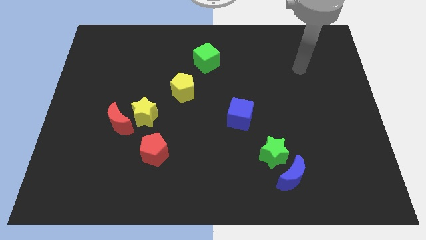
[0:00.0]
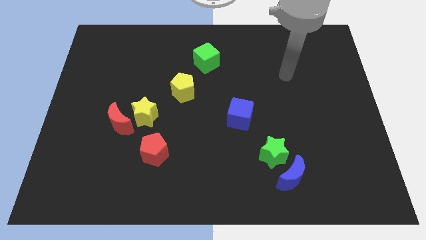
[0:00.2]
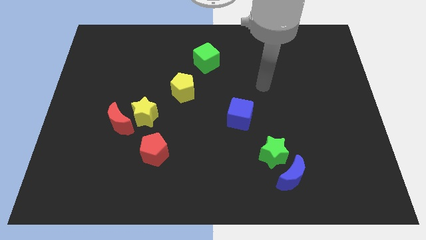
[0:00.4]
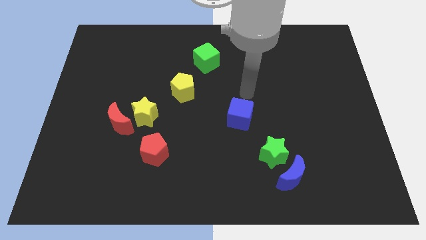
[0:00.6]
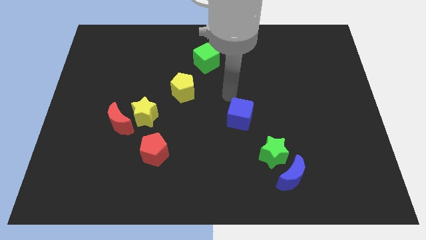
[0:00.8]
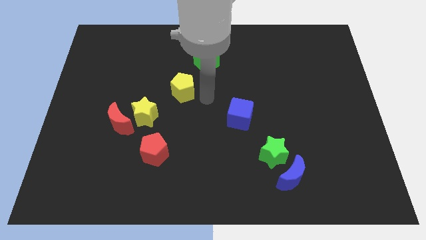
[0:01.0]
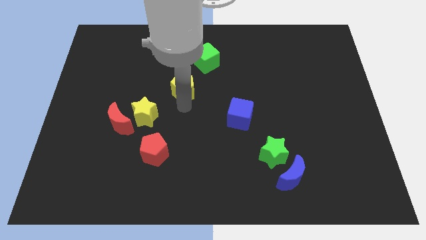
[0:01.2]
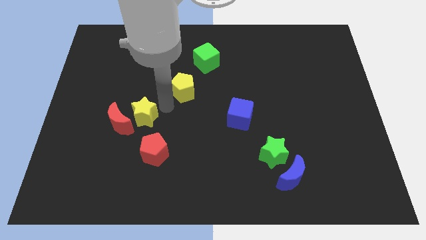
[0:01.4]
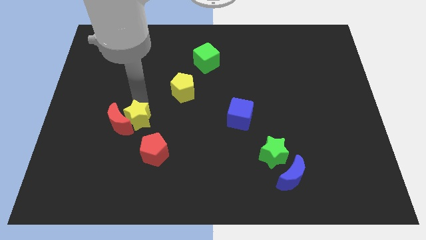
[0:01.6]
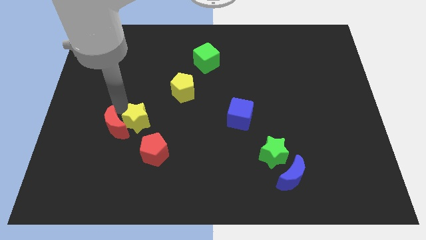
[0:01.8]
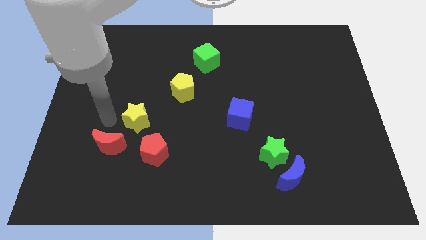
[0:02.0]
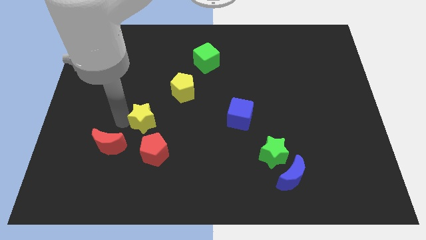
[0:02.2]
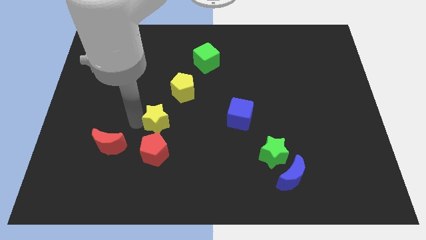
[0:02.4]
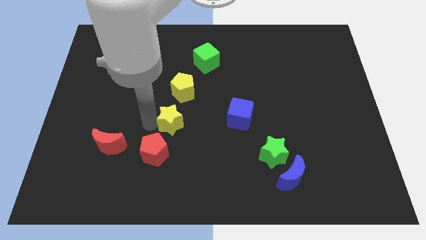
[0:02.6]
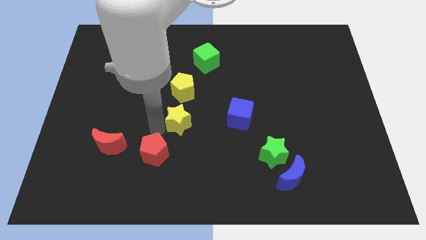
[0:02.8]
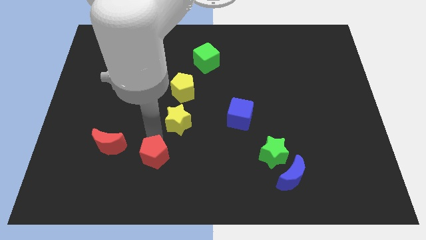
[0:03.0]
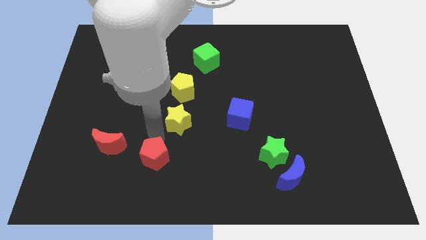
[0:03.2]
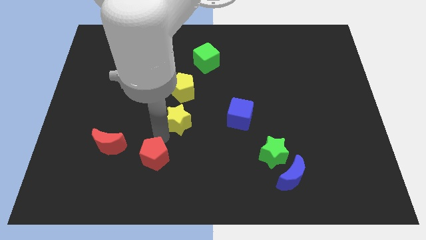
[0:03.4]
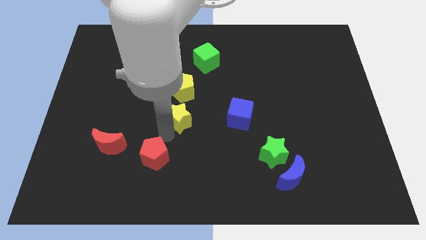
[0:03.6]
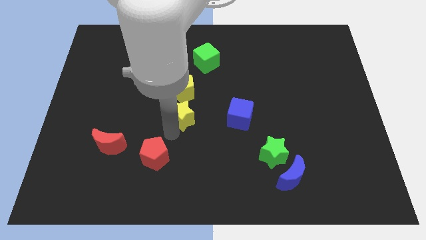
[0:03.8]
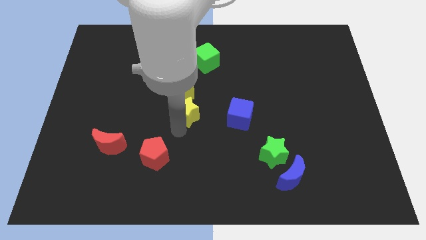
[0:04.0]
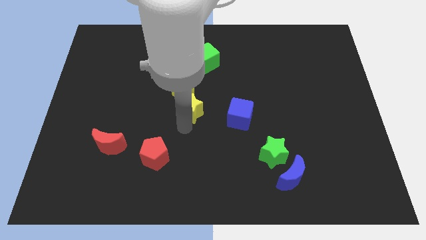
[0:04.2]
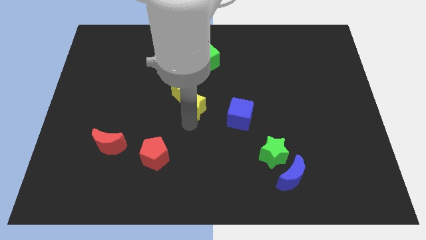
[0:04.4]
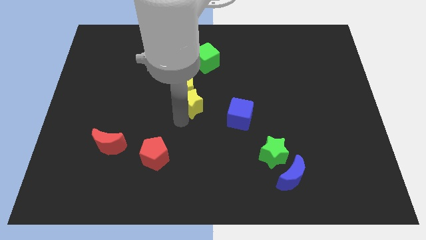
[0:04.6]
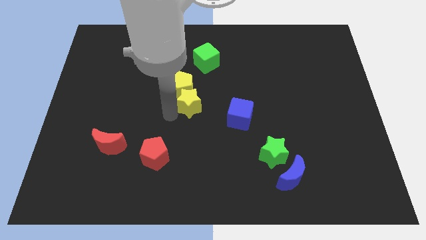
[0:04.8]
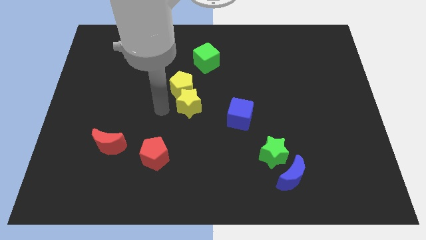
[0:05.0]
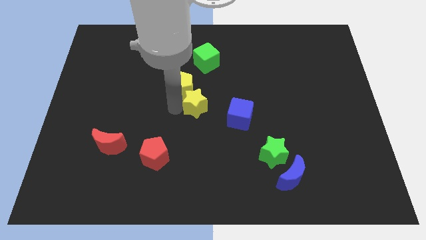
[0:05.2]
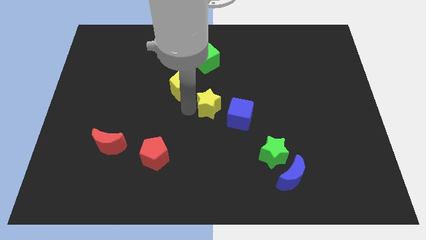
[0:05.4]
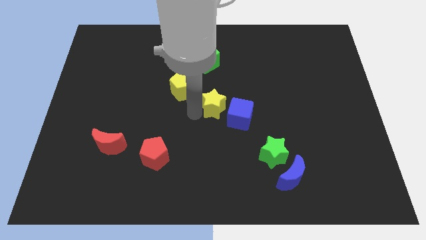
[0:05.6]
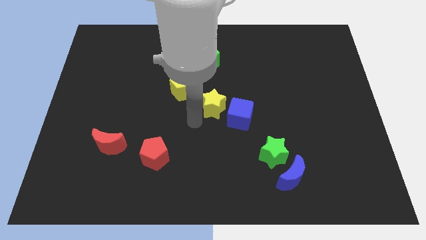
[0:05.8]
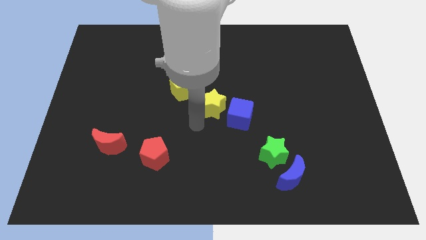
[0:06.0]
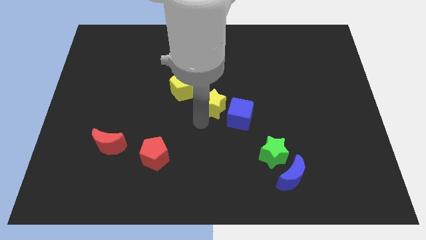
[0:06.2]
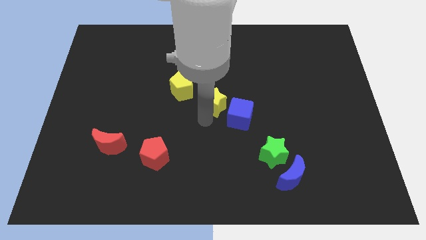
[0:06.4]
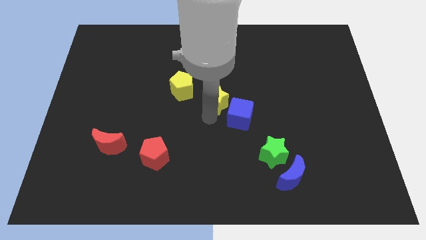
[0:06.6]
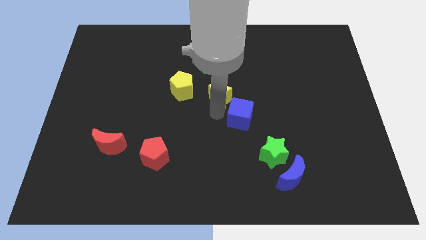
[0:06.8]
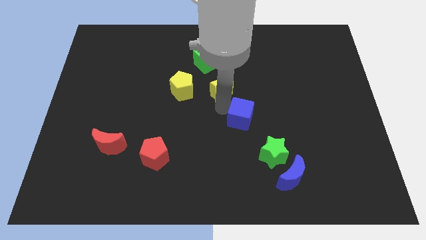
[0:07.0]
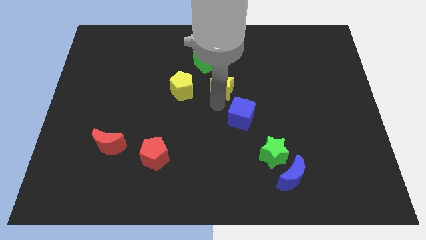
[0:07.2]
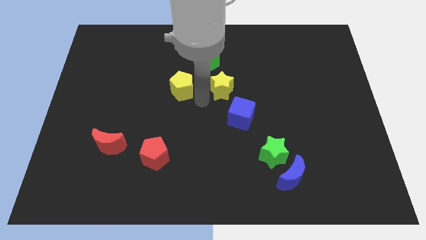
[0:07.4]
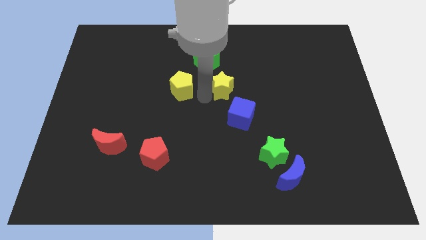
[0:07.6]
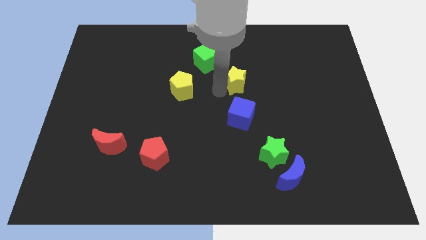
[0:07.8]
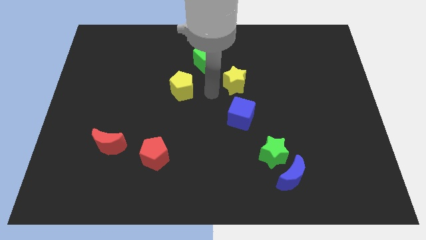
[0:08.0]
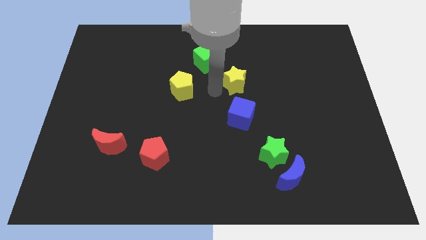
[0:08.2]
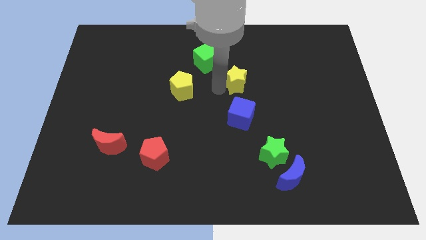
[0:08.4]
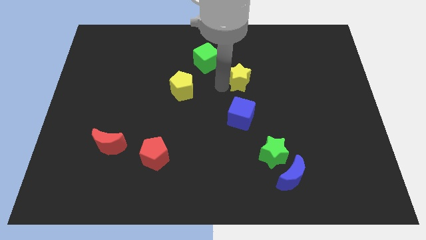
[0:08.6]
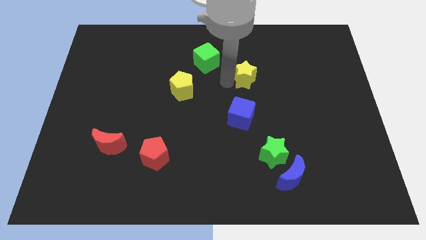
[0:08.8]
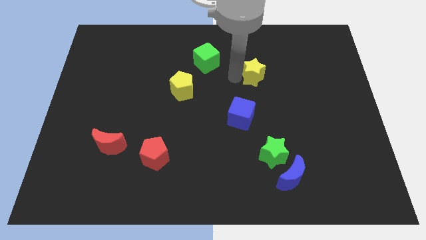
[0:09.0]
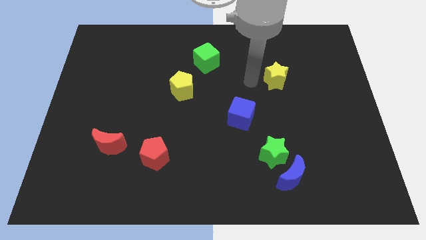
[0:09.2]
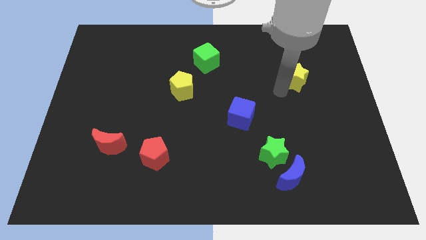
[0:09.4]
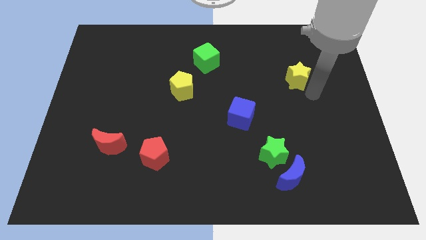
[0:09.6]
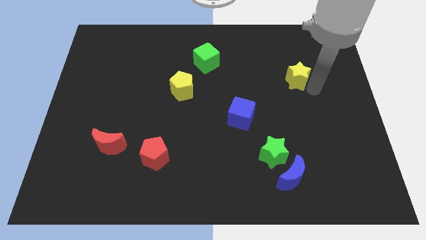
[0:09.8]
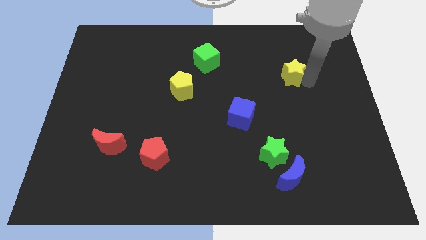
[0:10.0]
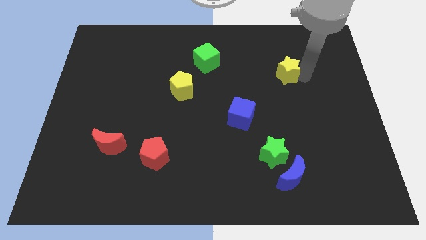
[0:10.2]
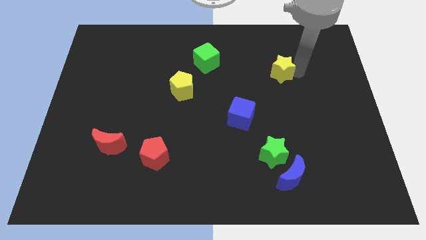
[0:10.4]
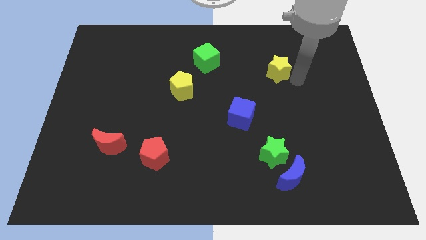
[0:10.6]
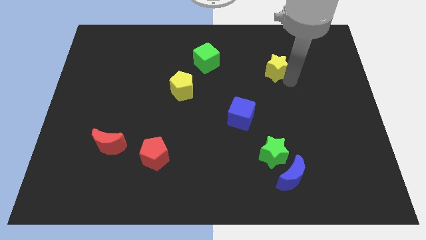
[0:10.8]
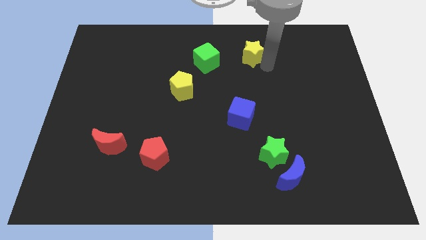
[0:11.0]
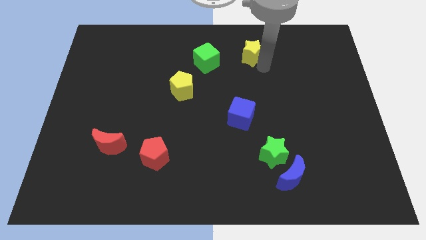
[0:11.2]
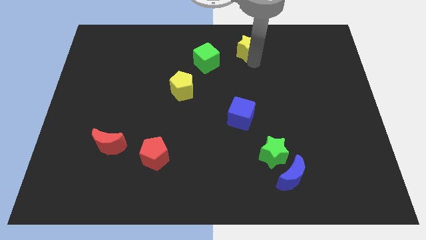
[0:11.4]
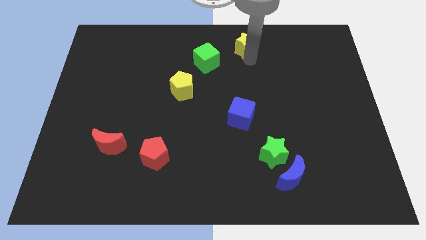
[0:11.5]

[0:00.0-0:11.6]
slide the yellow star to the top
